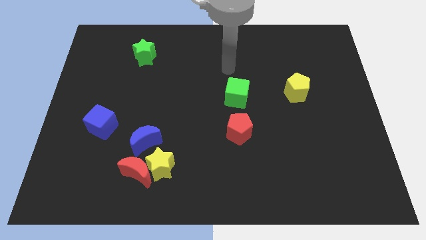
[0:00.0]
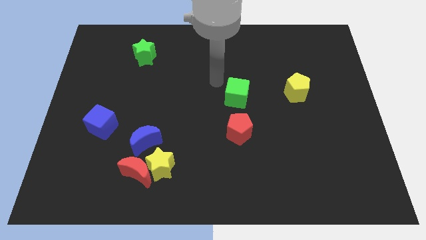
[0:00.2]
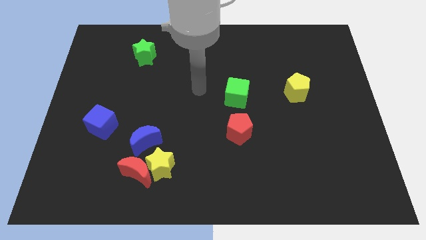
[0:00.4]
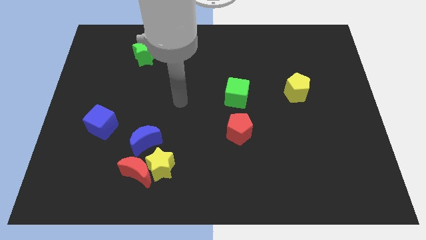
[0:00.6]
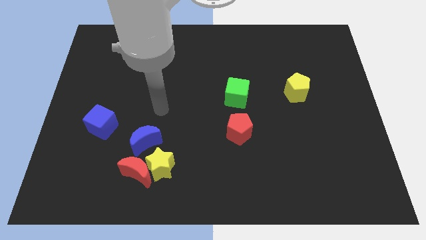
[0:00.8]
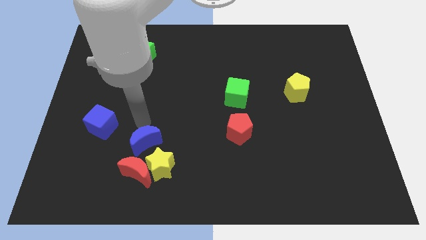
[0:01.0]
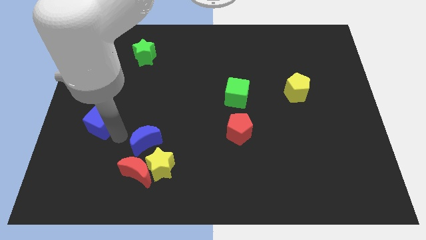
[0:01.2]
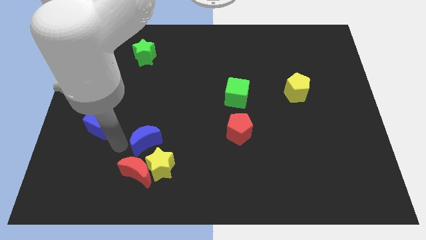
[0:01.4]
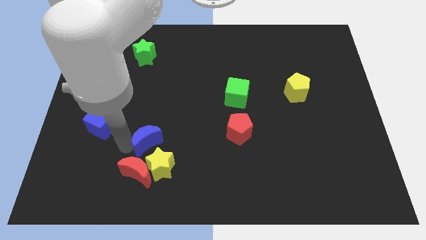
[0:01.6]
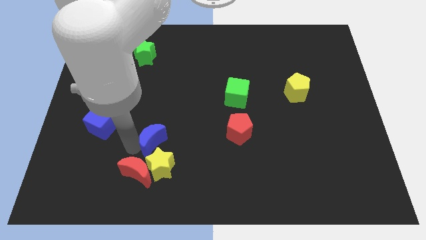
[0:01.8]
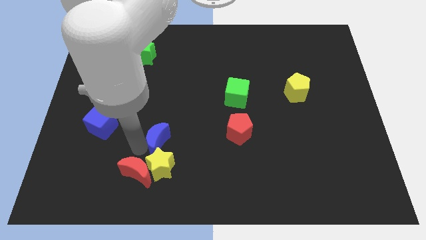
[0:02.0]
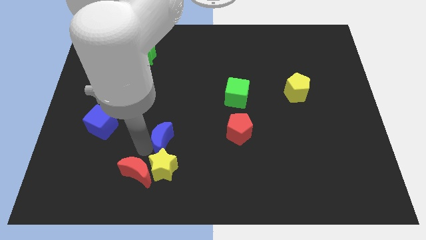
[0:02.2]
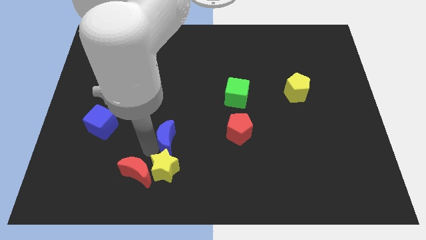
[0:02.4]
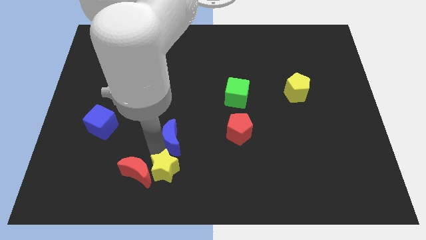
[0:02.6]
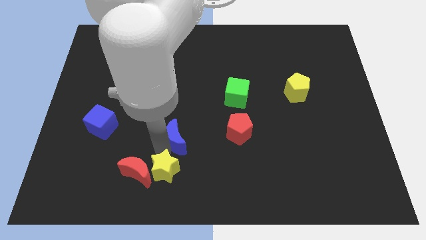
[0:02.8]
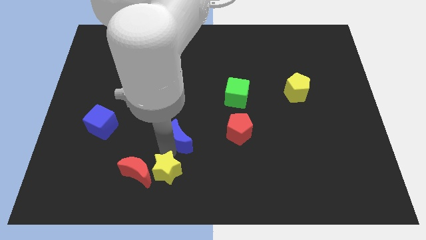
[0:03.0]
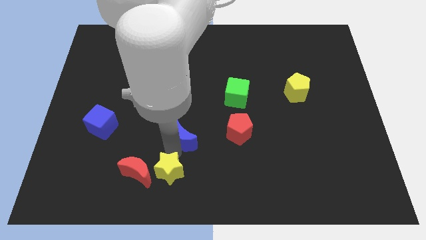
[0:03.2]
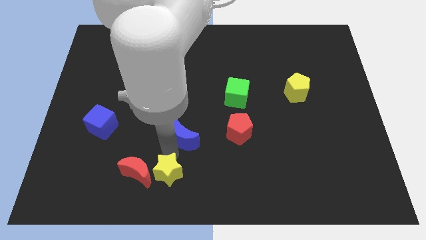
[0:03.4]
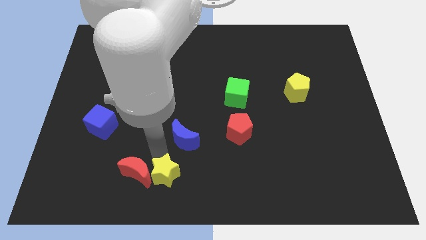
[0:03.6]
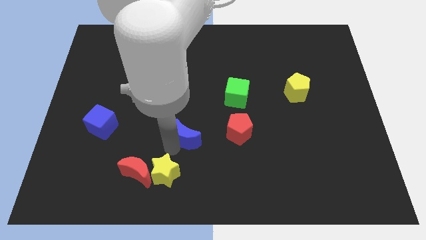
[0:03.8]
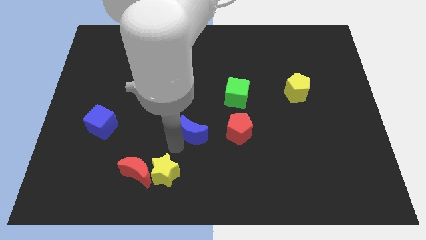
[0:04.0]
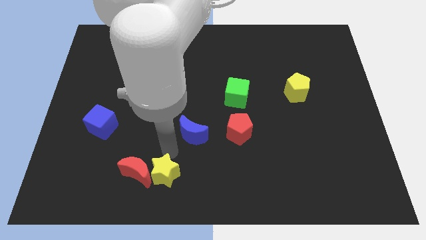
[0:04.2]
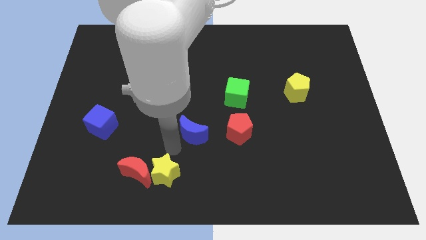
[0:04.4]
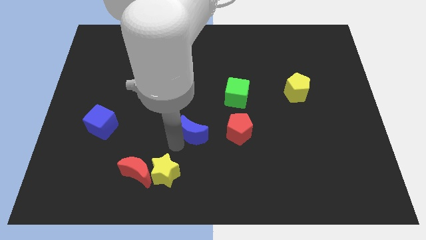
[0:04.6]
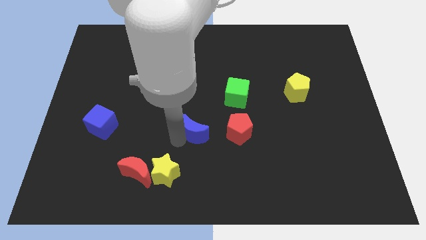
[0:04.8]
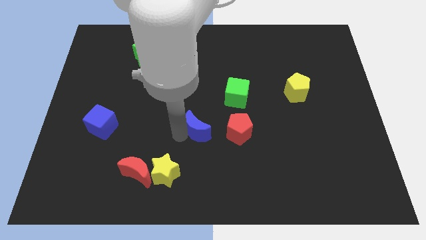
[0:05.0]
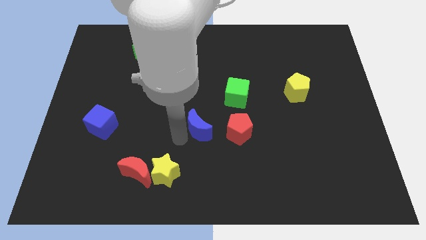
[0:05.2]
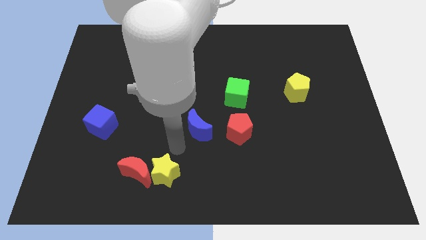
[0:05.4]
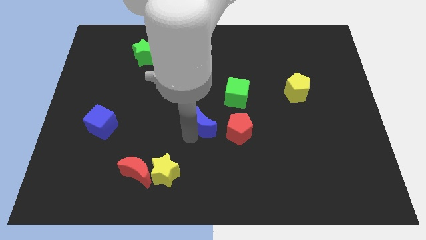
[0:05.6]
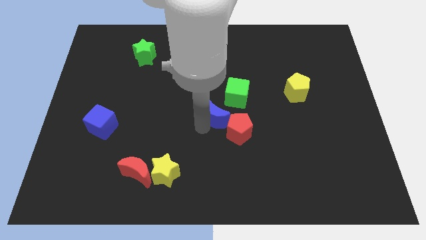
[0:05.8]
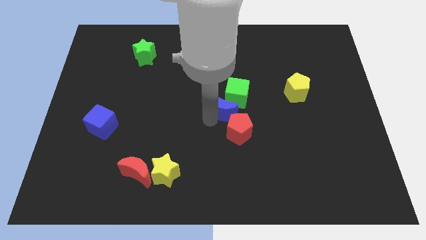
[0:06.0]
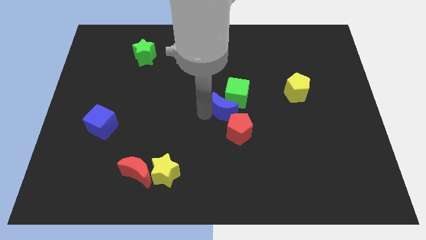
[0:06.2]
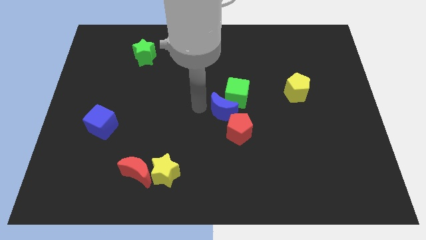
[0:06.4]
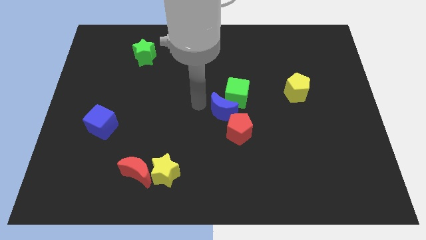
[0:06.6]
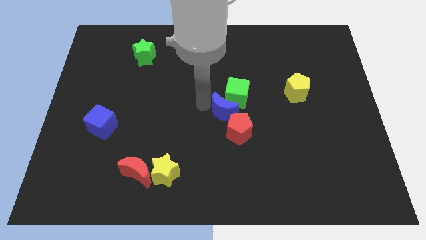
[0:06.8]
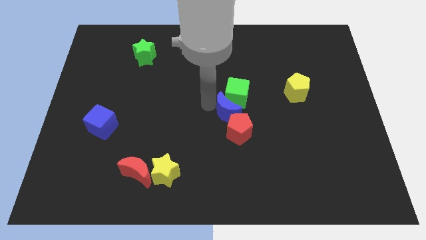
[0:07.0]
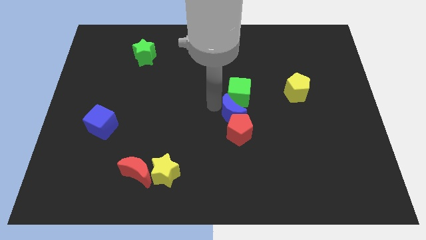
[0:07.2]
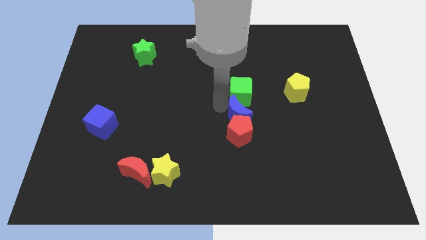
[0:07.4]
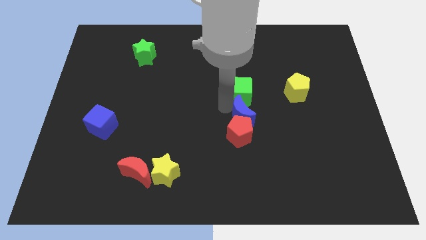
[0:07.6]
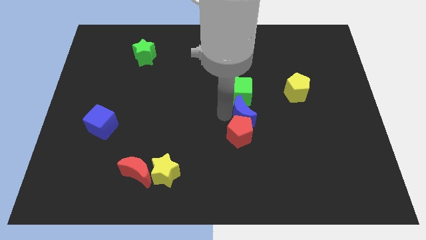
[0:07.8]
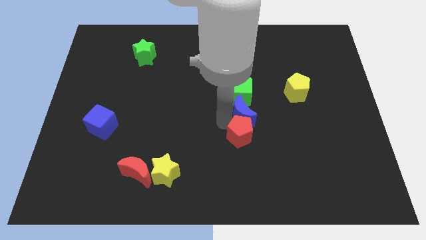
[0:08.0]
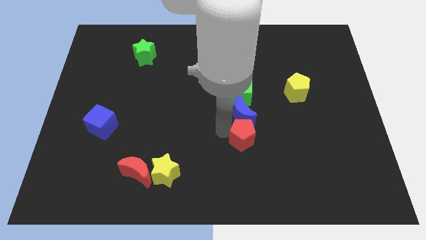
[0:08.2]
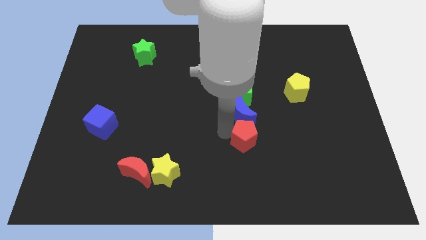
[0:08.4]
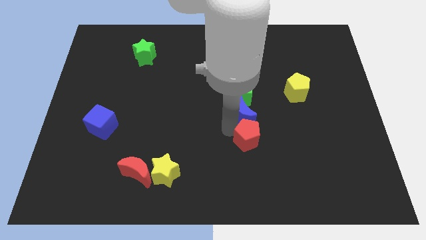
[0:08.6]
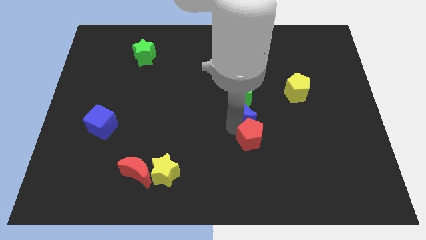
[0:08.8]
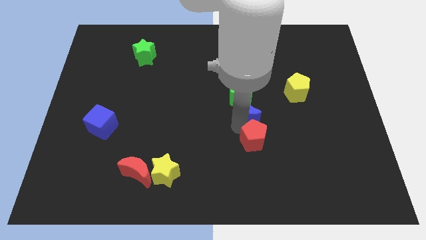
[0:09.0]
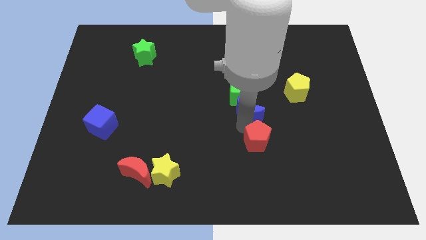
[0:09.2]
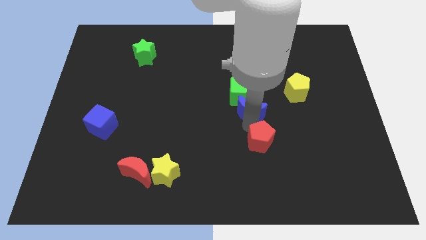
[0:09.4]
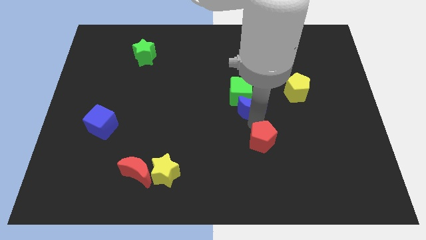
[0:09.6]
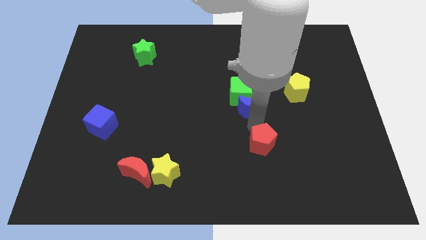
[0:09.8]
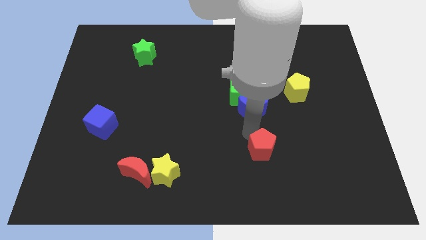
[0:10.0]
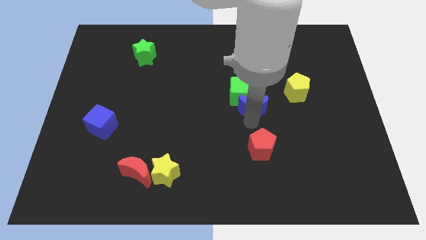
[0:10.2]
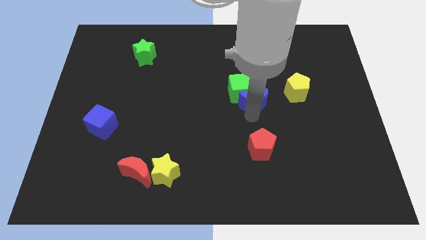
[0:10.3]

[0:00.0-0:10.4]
put the blue moon left of the yellow pentagon

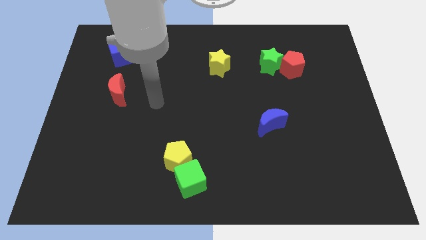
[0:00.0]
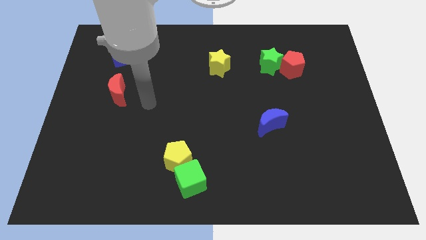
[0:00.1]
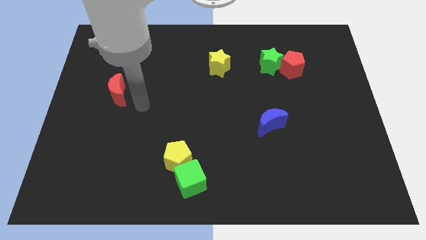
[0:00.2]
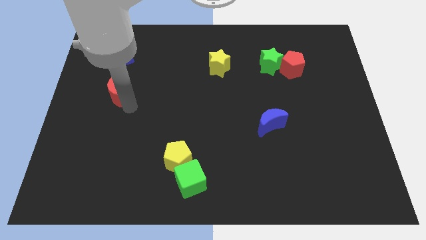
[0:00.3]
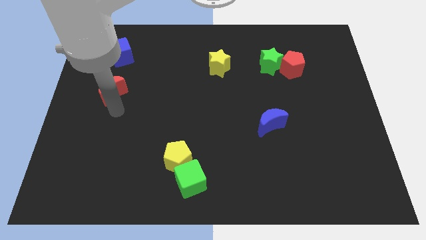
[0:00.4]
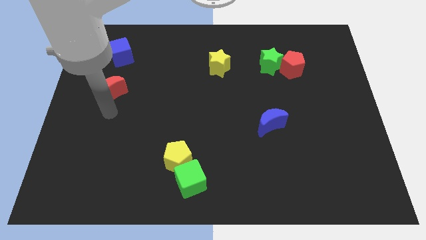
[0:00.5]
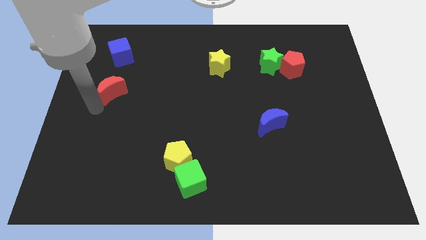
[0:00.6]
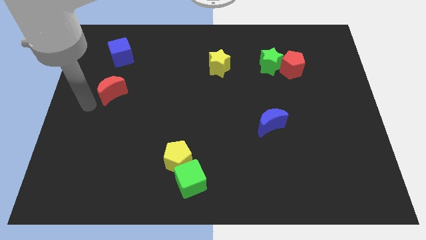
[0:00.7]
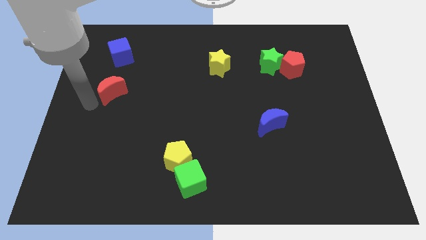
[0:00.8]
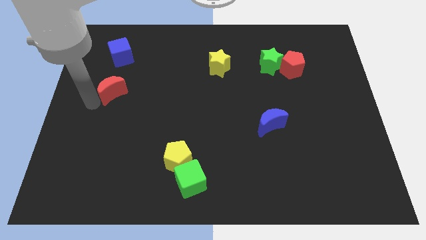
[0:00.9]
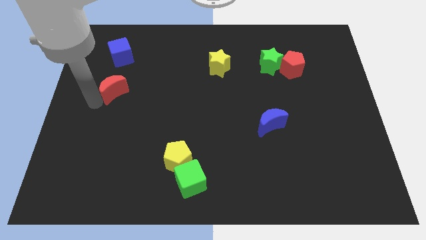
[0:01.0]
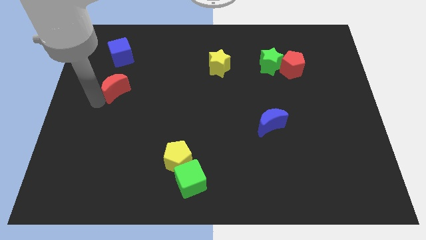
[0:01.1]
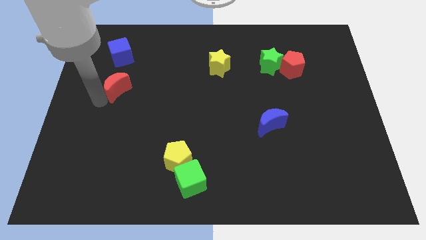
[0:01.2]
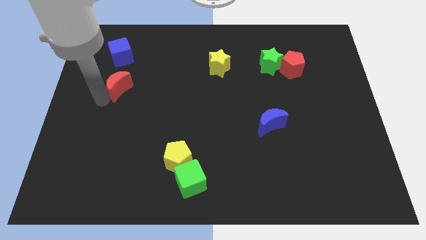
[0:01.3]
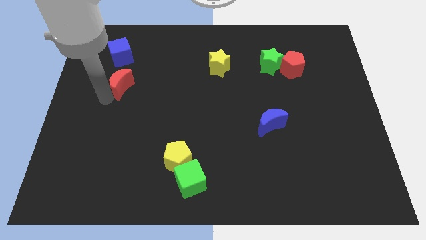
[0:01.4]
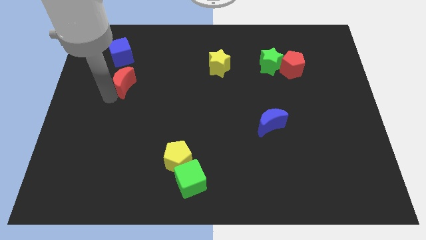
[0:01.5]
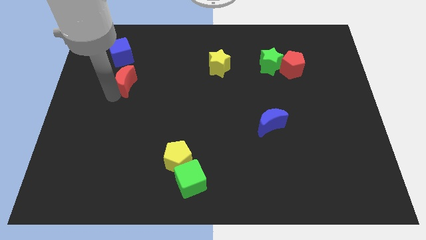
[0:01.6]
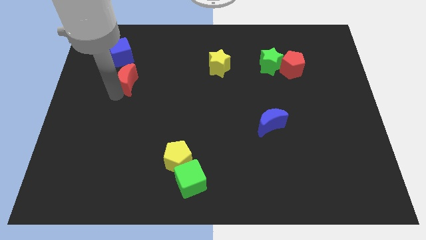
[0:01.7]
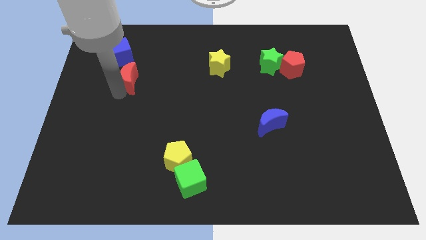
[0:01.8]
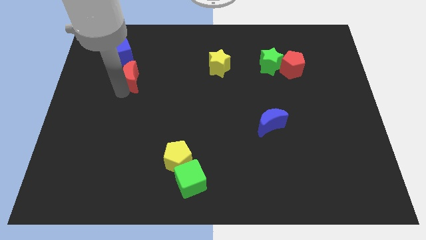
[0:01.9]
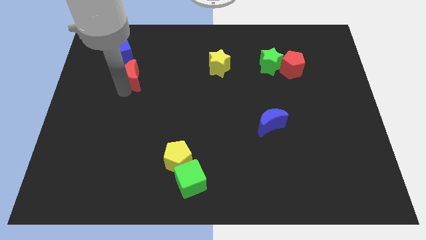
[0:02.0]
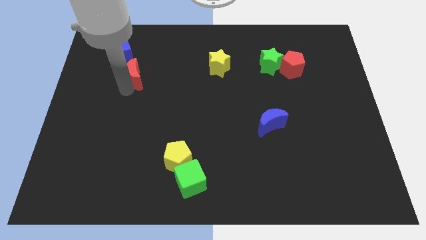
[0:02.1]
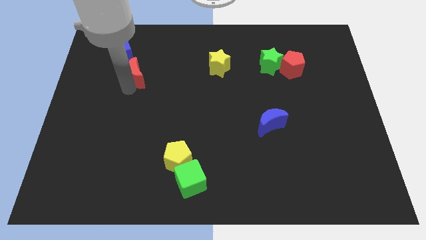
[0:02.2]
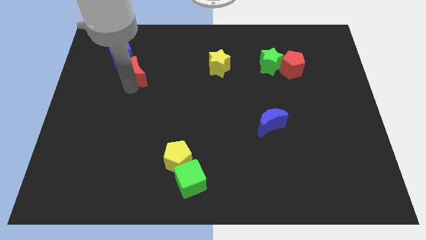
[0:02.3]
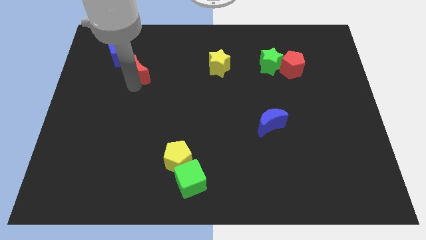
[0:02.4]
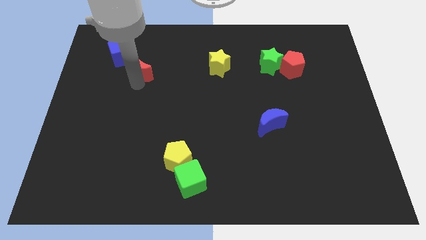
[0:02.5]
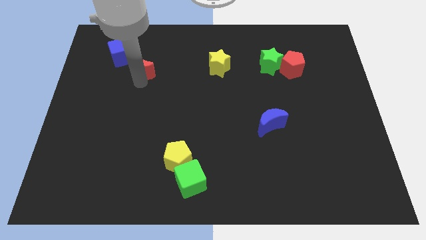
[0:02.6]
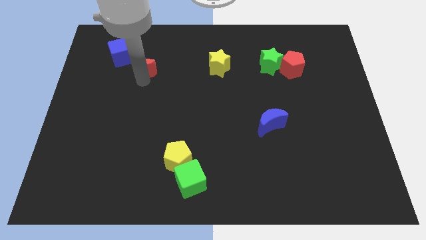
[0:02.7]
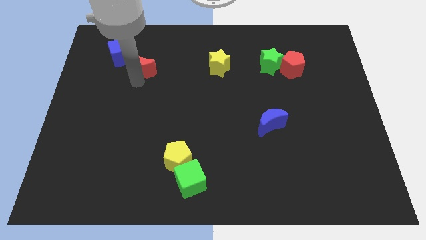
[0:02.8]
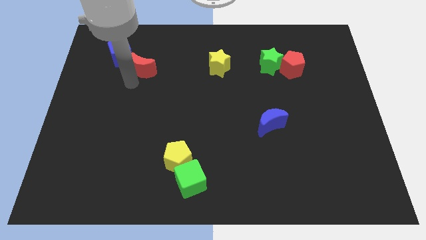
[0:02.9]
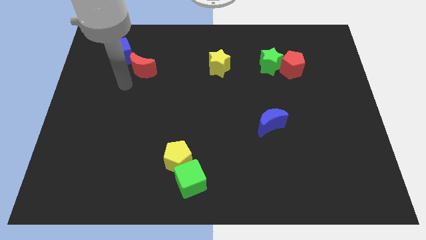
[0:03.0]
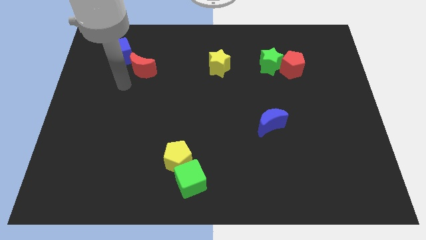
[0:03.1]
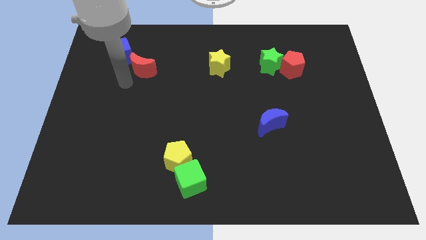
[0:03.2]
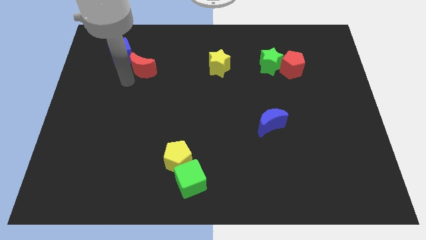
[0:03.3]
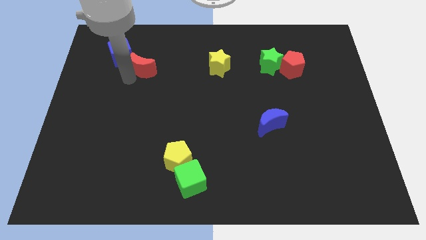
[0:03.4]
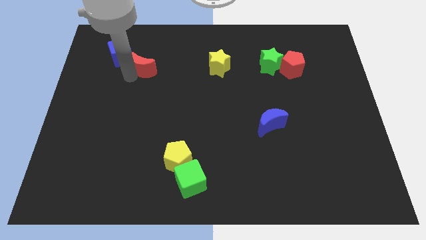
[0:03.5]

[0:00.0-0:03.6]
push the red moon to the right side of the blue cube
